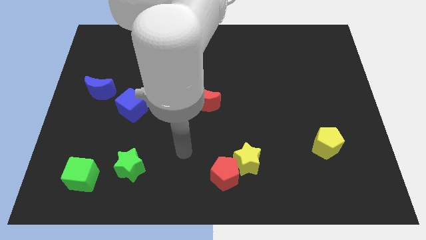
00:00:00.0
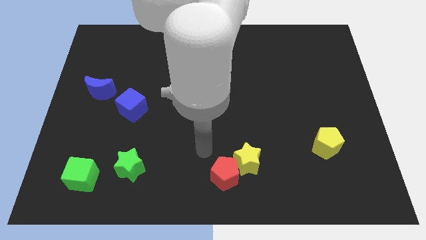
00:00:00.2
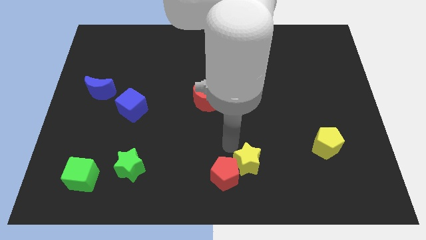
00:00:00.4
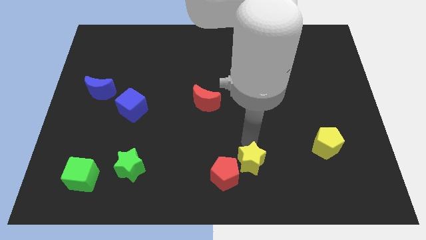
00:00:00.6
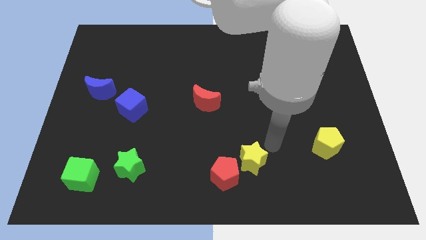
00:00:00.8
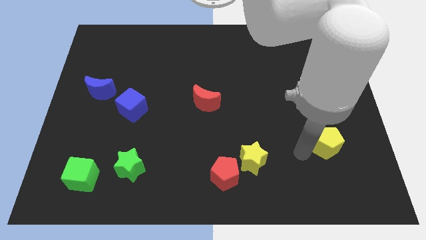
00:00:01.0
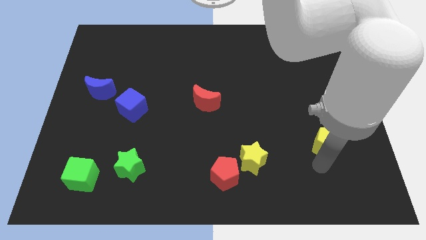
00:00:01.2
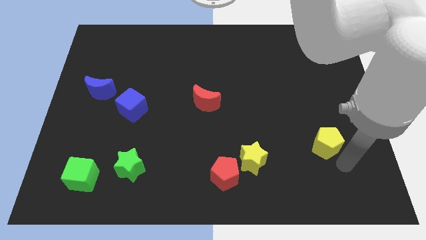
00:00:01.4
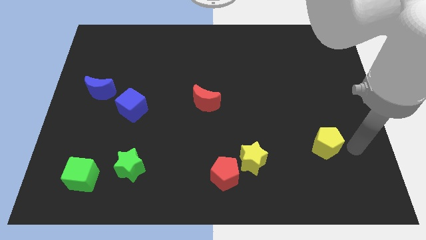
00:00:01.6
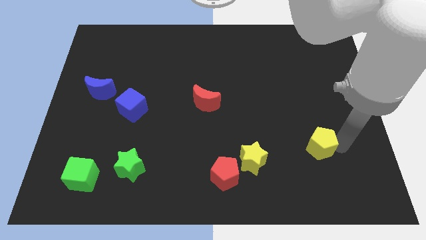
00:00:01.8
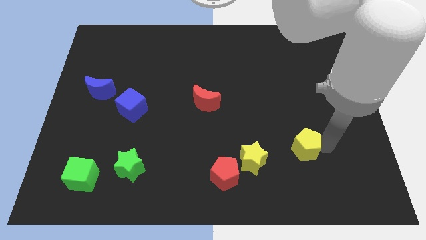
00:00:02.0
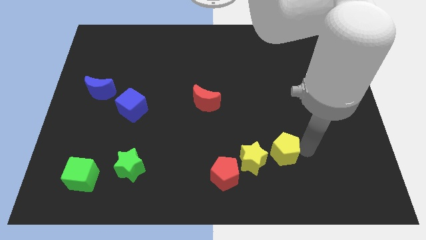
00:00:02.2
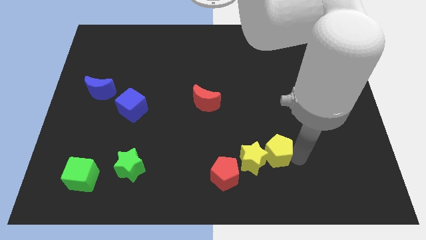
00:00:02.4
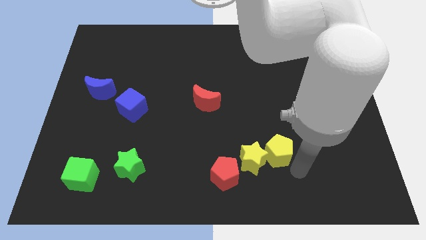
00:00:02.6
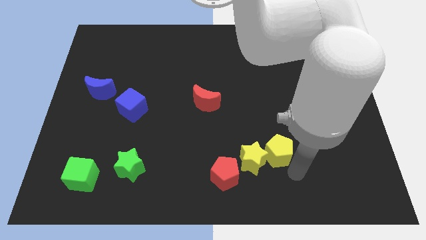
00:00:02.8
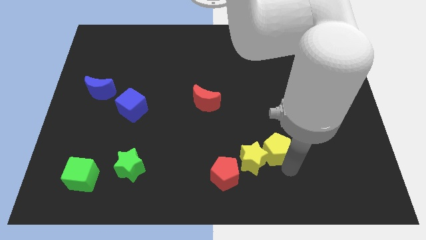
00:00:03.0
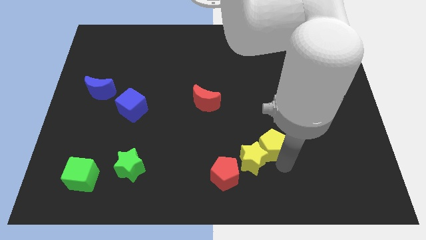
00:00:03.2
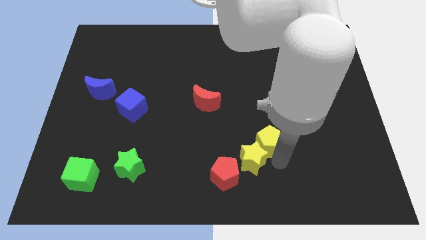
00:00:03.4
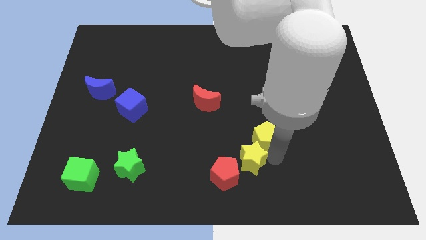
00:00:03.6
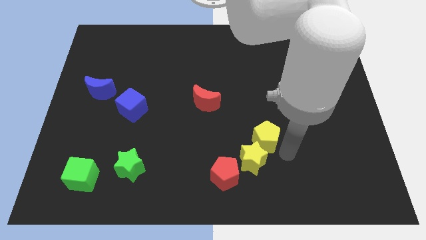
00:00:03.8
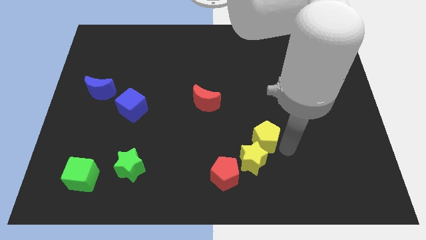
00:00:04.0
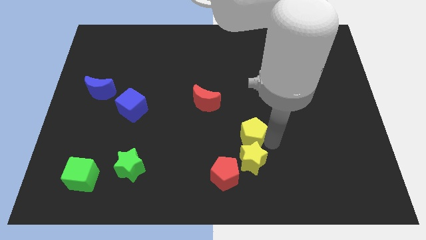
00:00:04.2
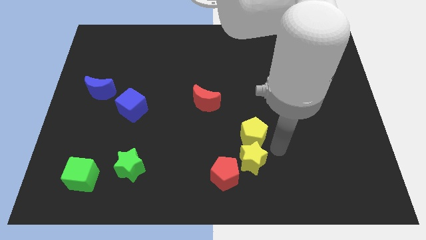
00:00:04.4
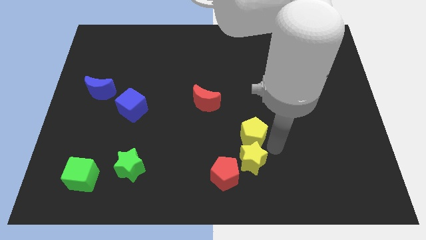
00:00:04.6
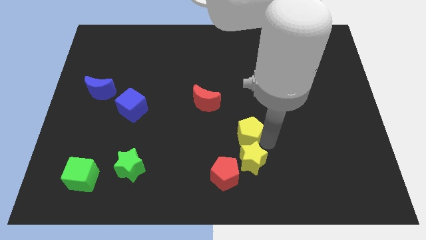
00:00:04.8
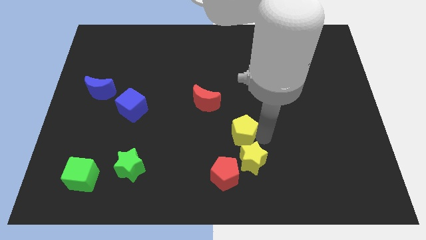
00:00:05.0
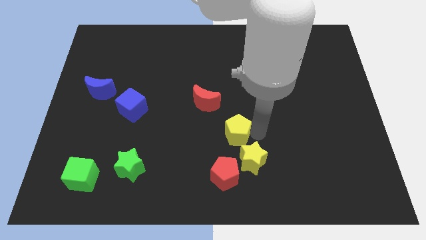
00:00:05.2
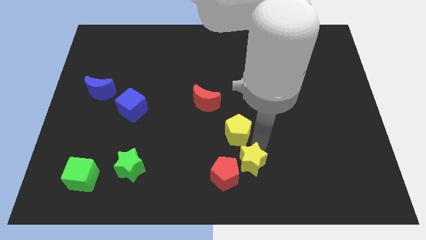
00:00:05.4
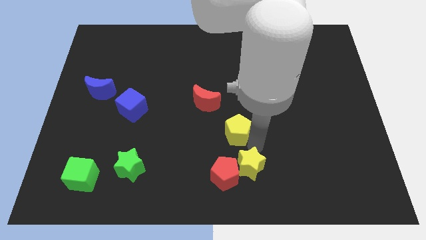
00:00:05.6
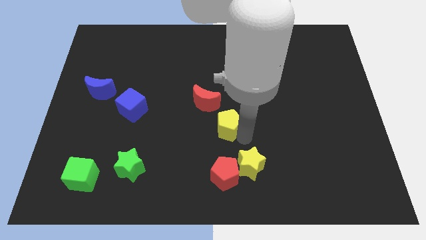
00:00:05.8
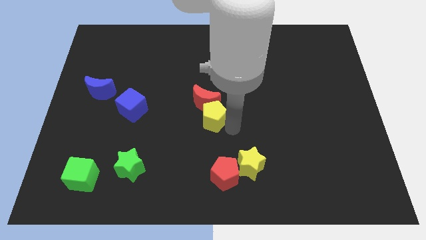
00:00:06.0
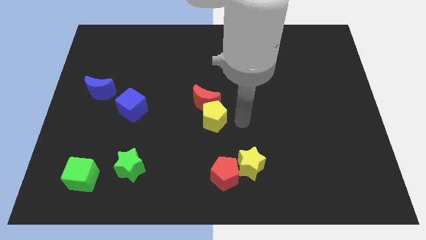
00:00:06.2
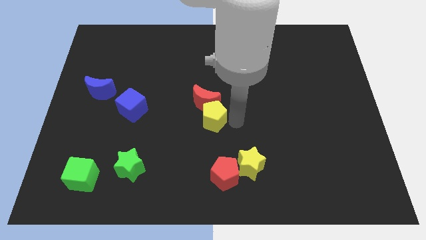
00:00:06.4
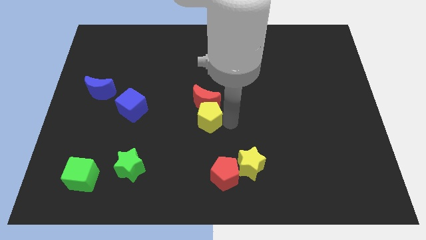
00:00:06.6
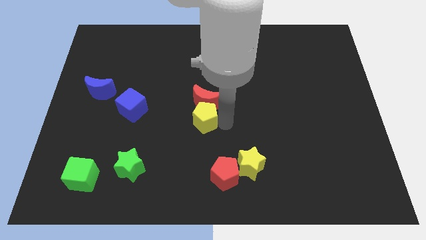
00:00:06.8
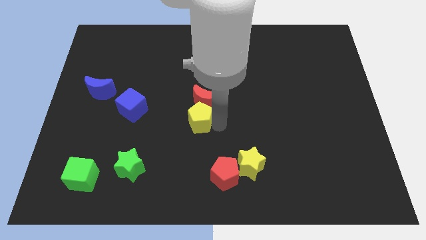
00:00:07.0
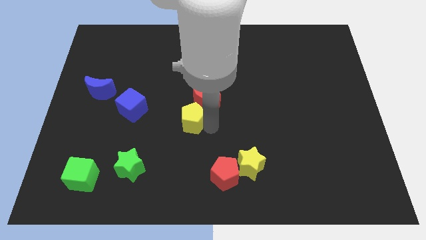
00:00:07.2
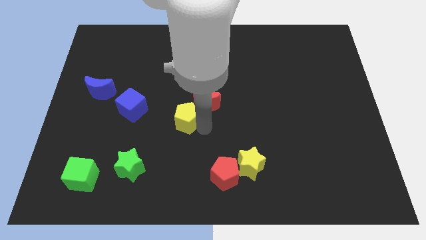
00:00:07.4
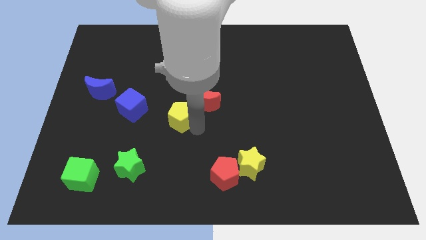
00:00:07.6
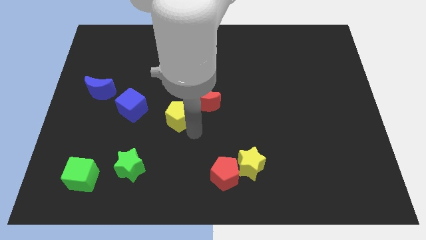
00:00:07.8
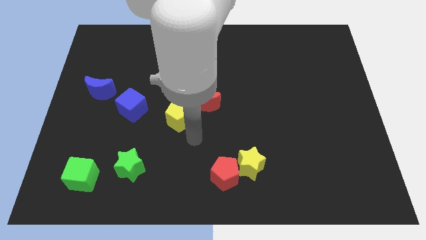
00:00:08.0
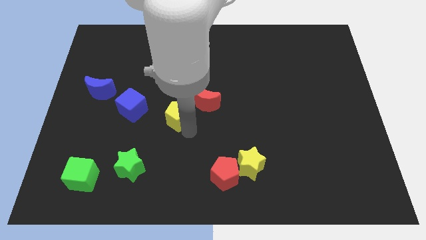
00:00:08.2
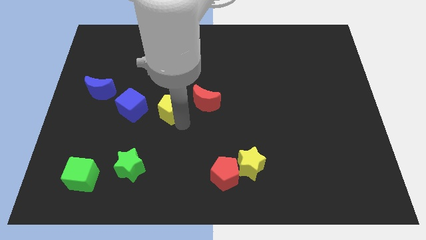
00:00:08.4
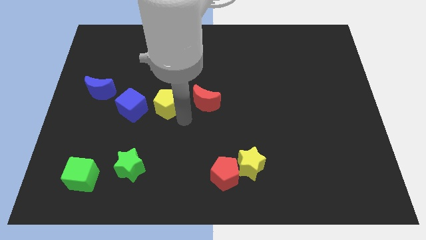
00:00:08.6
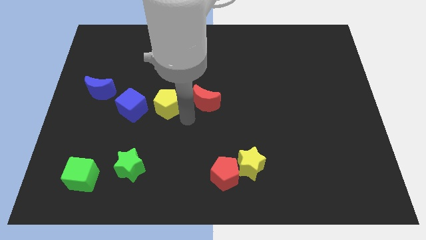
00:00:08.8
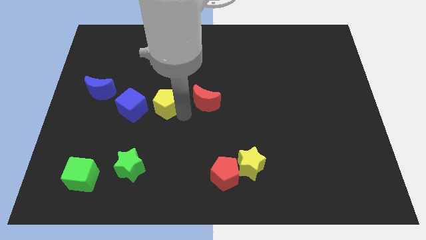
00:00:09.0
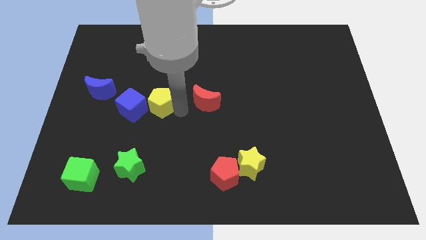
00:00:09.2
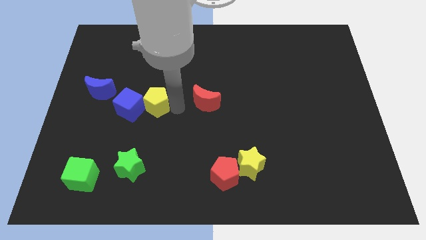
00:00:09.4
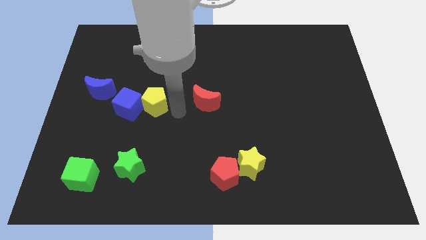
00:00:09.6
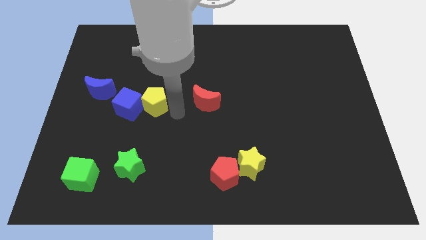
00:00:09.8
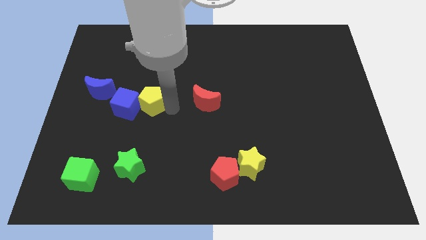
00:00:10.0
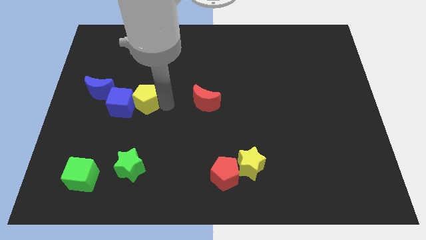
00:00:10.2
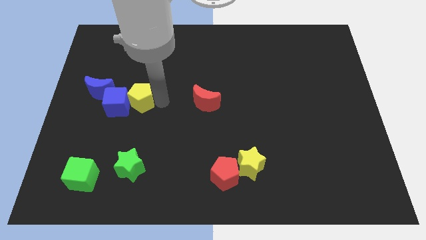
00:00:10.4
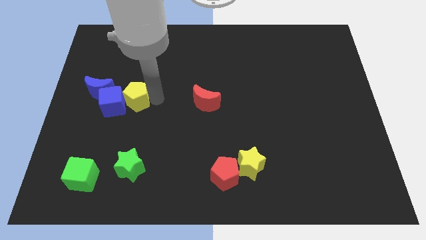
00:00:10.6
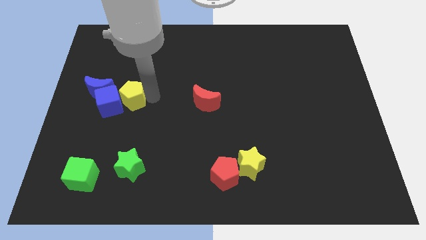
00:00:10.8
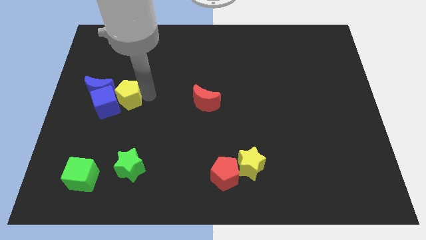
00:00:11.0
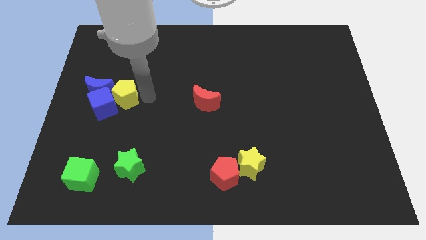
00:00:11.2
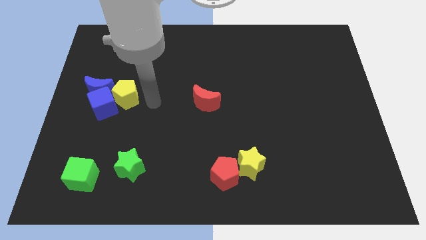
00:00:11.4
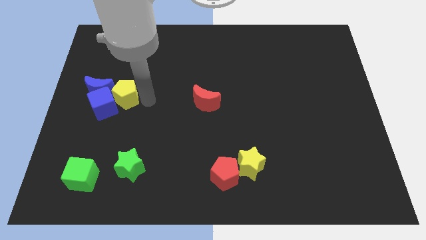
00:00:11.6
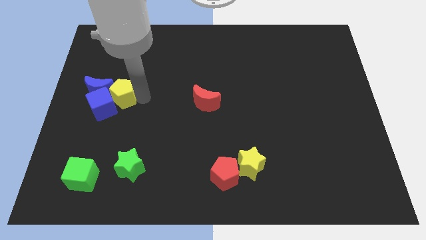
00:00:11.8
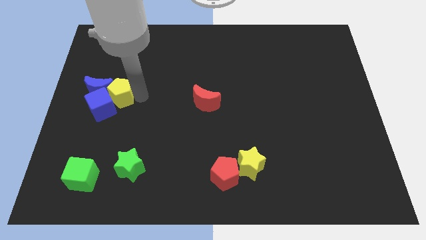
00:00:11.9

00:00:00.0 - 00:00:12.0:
move the yellow pentagon close to the blue moon

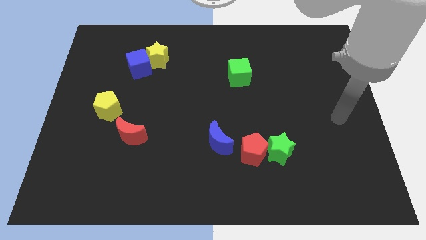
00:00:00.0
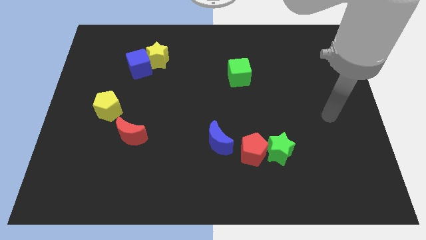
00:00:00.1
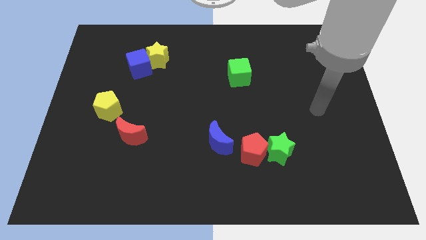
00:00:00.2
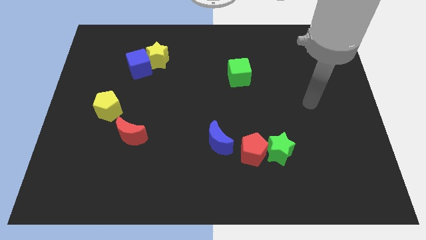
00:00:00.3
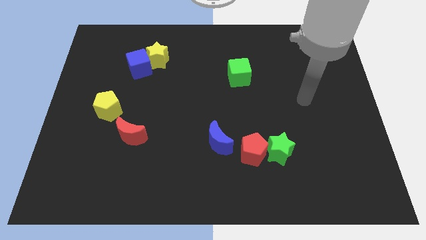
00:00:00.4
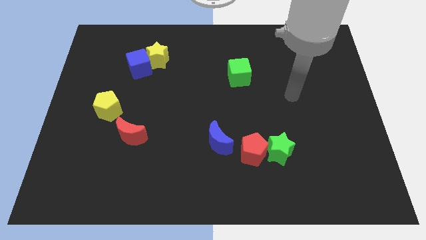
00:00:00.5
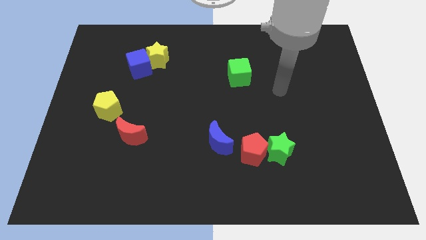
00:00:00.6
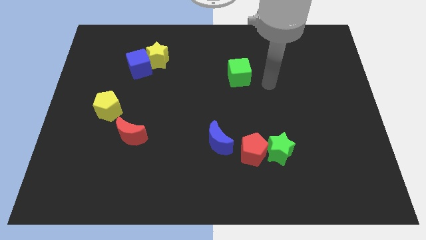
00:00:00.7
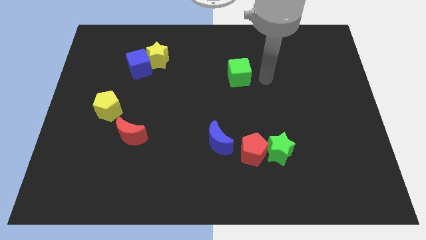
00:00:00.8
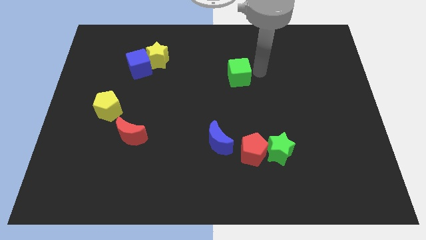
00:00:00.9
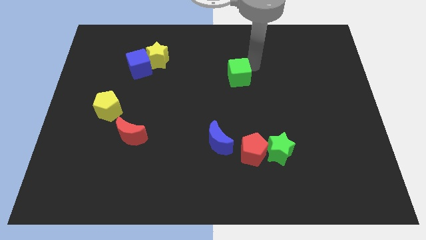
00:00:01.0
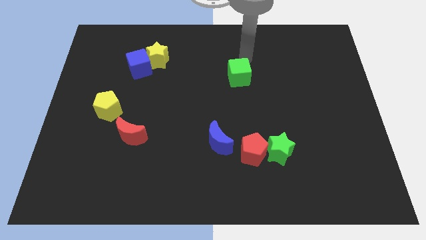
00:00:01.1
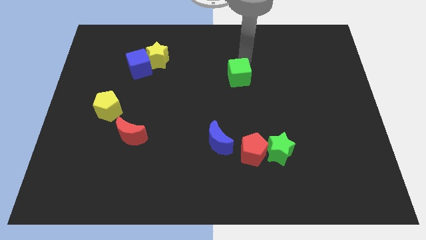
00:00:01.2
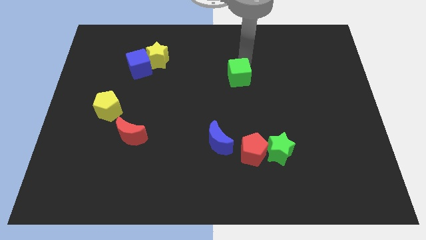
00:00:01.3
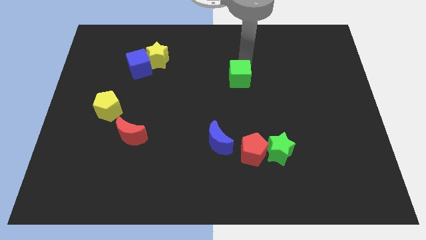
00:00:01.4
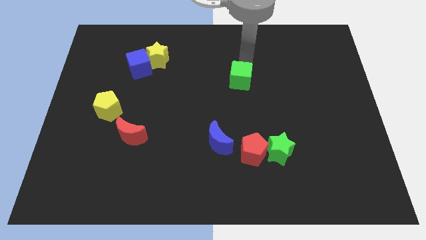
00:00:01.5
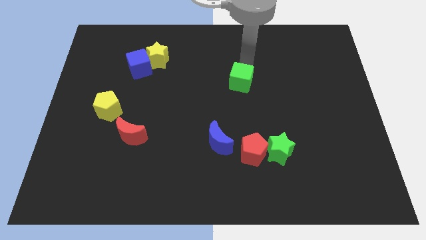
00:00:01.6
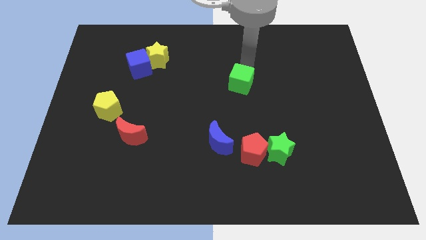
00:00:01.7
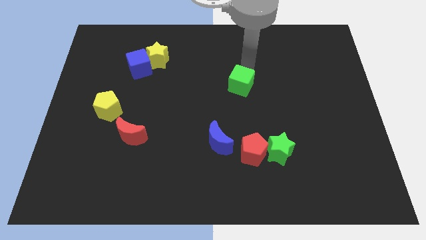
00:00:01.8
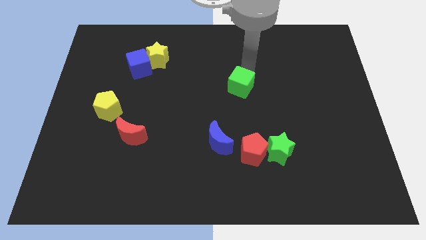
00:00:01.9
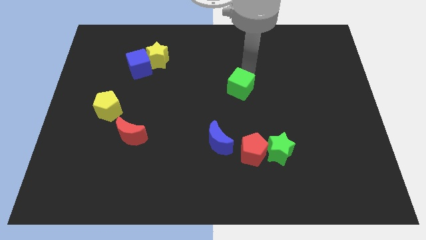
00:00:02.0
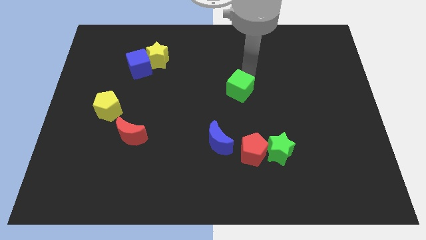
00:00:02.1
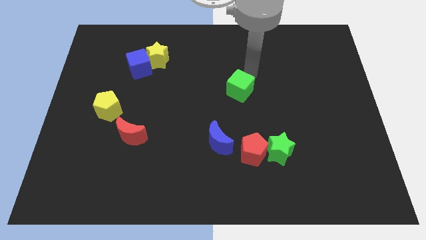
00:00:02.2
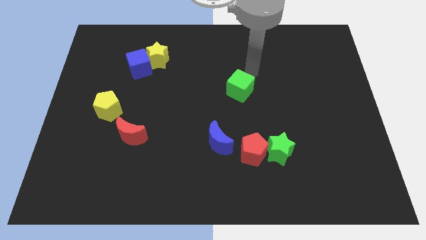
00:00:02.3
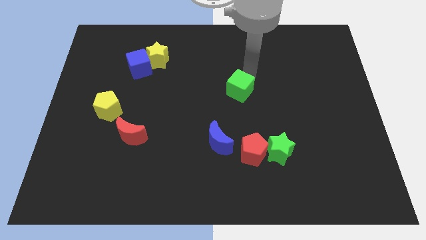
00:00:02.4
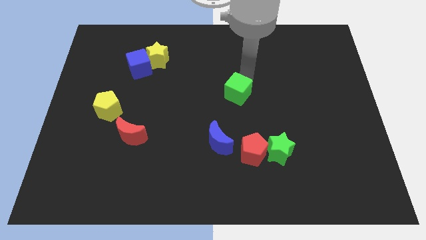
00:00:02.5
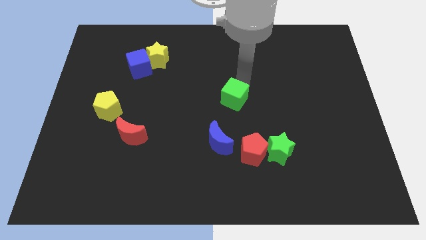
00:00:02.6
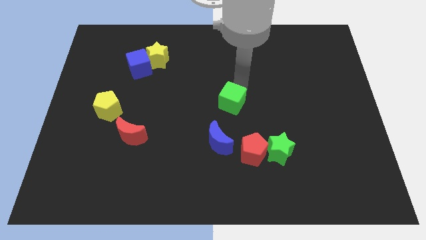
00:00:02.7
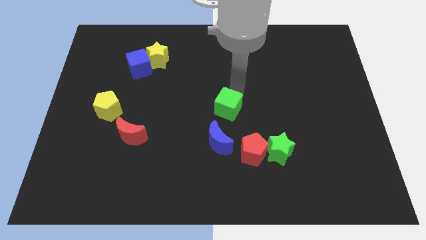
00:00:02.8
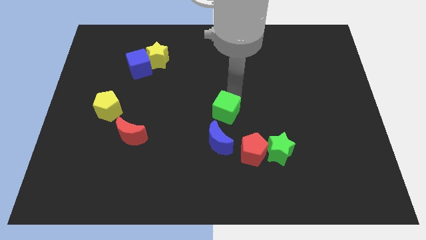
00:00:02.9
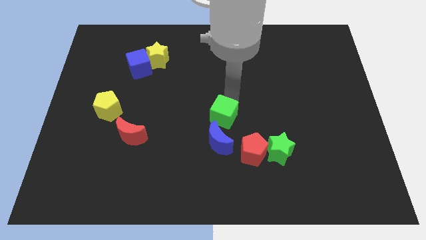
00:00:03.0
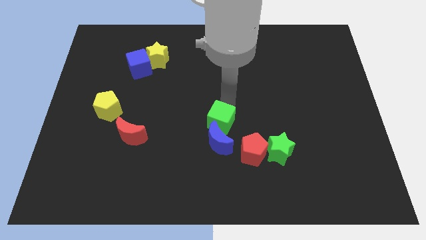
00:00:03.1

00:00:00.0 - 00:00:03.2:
slide the green cube to the blue moon
